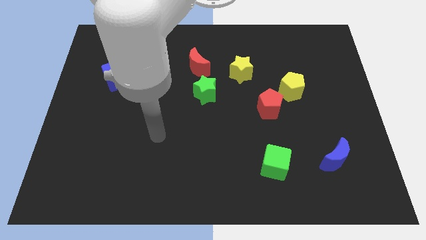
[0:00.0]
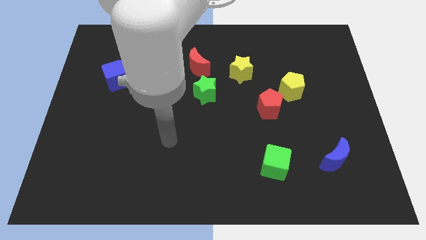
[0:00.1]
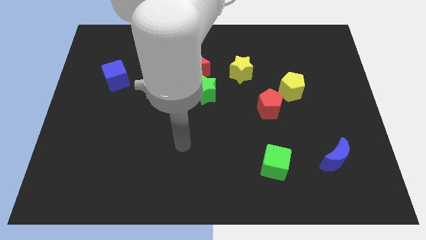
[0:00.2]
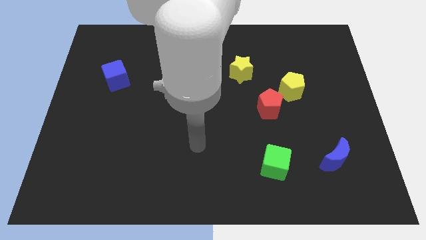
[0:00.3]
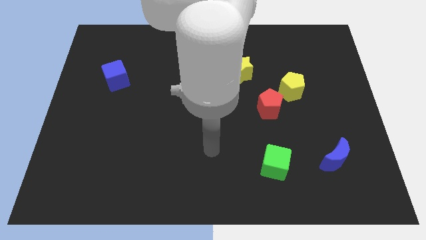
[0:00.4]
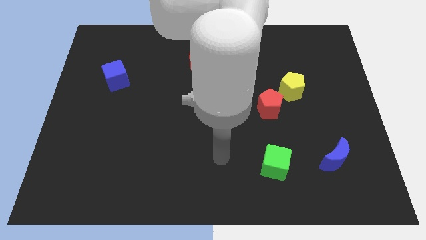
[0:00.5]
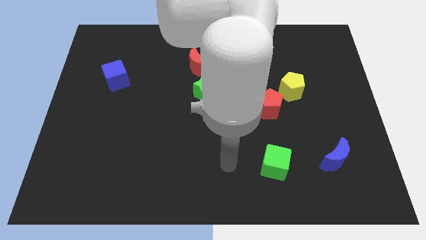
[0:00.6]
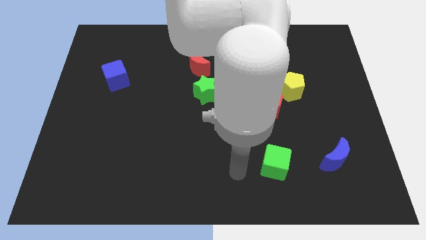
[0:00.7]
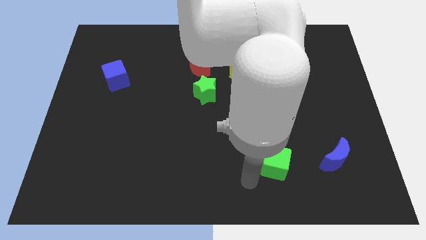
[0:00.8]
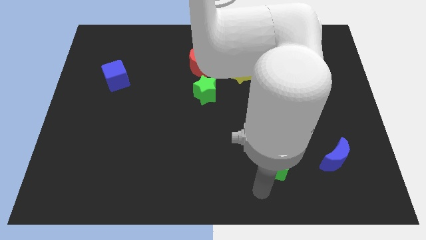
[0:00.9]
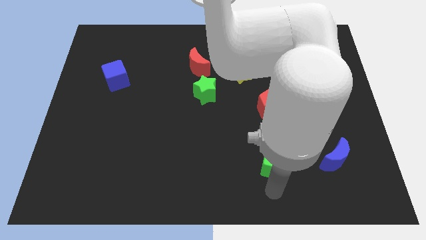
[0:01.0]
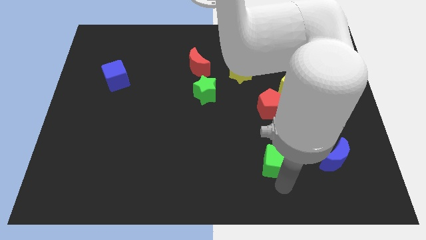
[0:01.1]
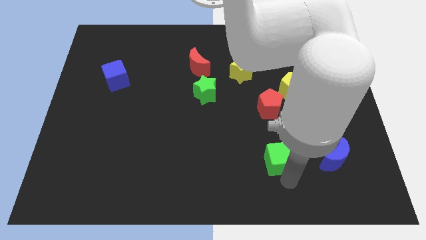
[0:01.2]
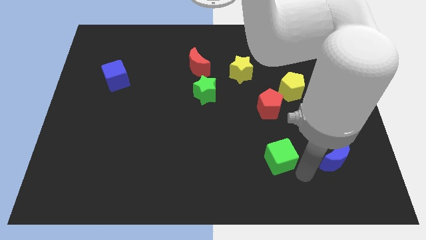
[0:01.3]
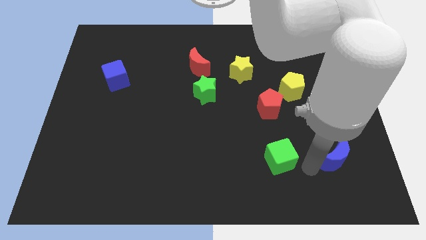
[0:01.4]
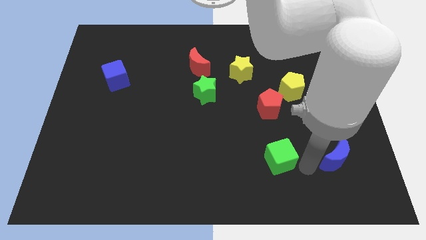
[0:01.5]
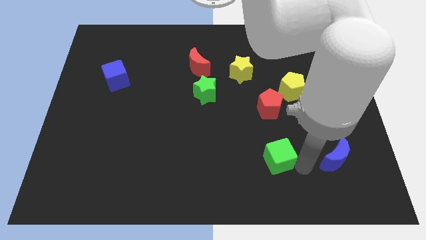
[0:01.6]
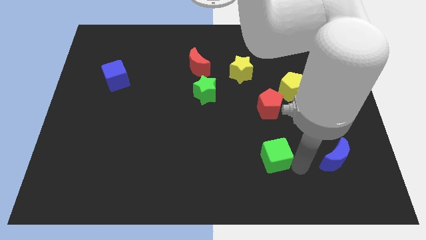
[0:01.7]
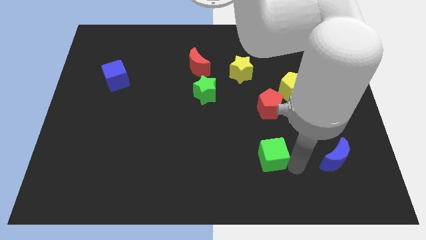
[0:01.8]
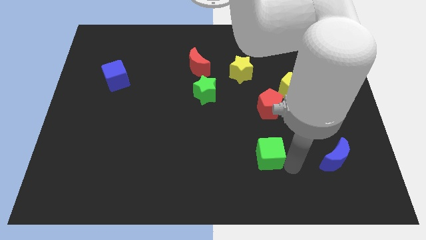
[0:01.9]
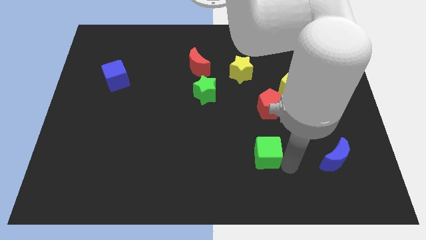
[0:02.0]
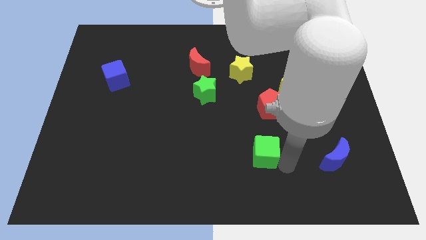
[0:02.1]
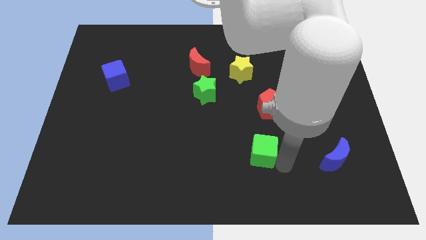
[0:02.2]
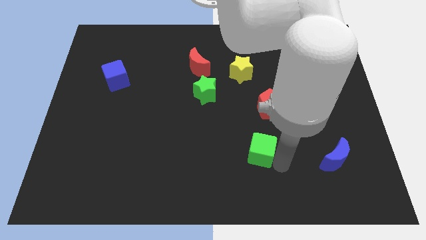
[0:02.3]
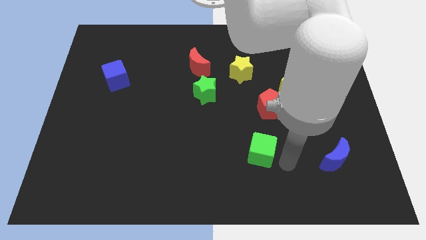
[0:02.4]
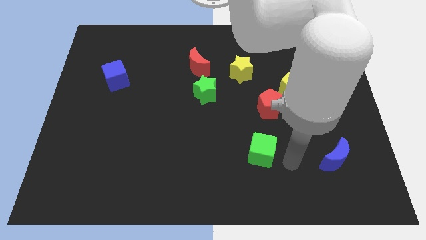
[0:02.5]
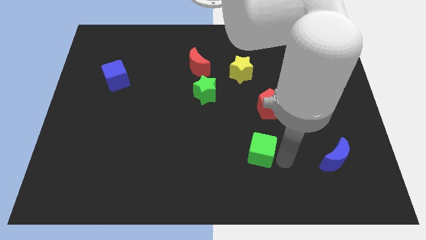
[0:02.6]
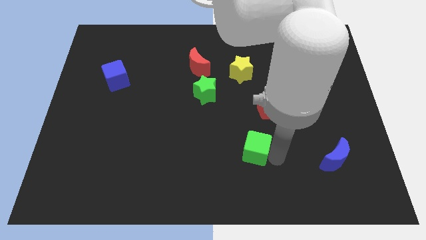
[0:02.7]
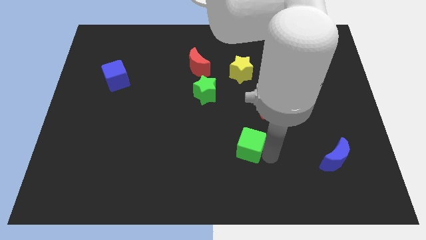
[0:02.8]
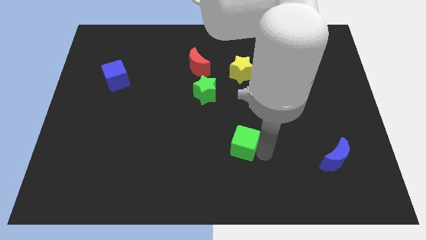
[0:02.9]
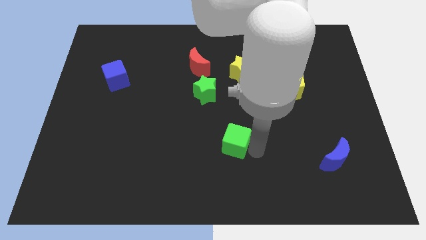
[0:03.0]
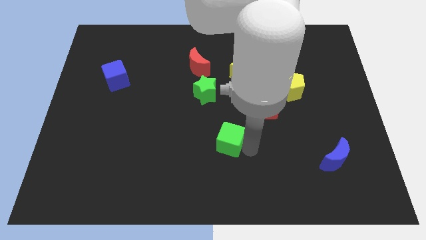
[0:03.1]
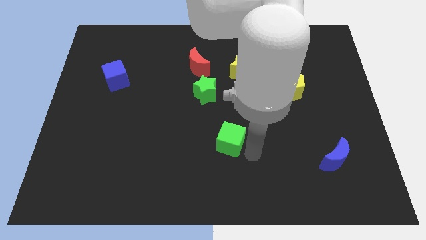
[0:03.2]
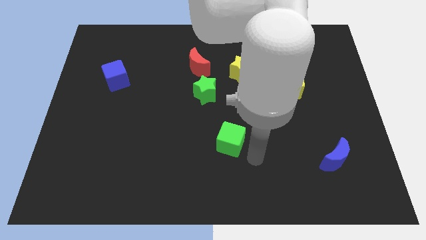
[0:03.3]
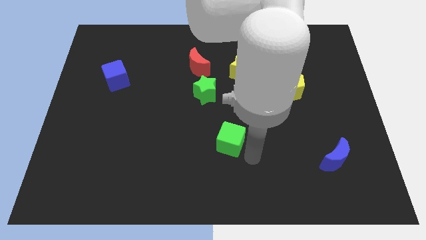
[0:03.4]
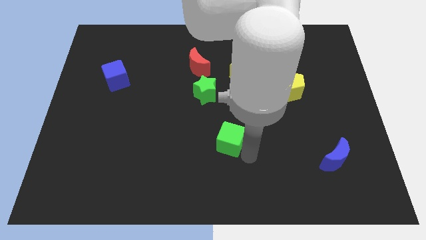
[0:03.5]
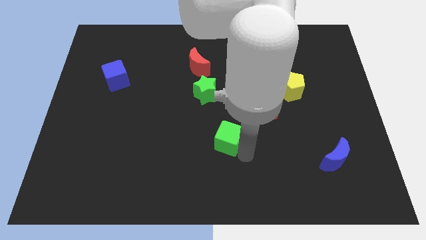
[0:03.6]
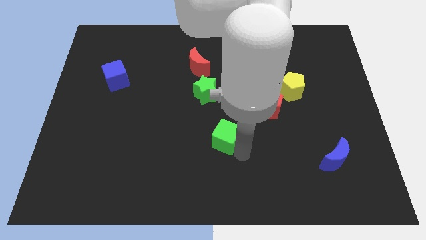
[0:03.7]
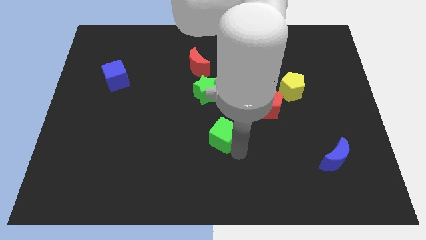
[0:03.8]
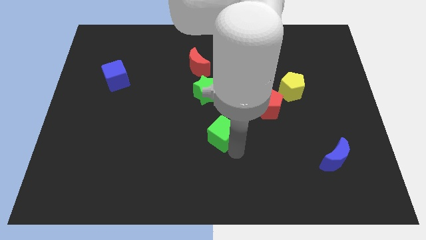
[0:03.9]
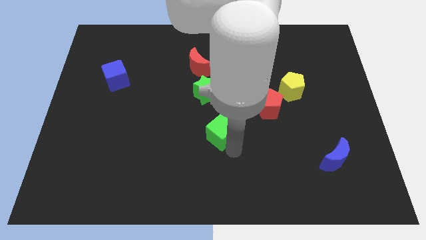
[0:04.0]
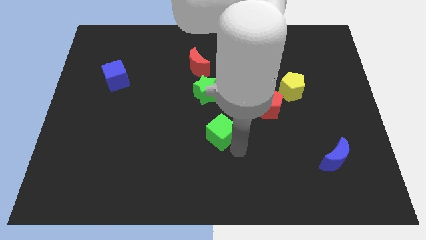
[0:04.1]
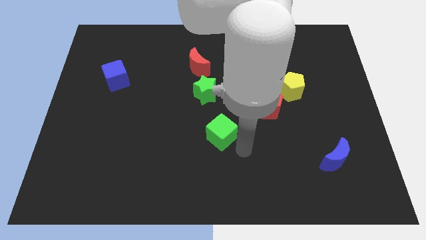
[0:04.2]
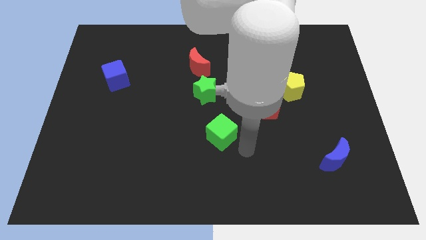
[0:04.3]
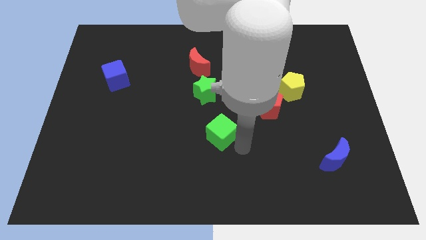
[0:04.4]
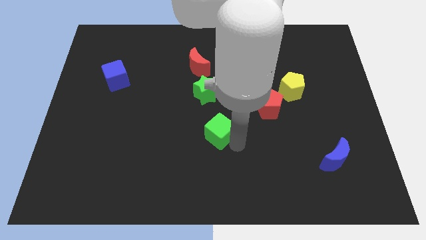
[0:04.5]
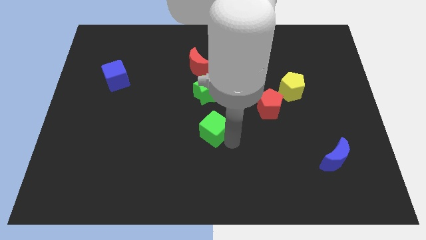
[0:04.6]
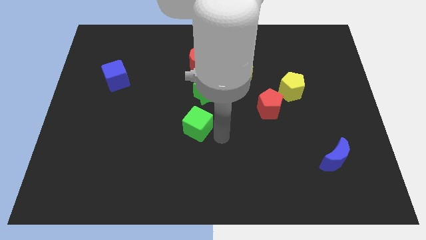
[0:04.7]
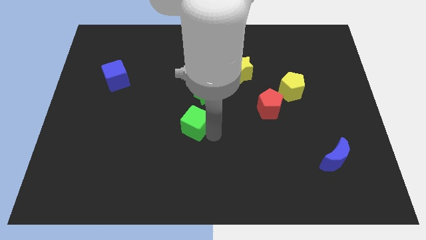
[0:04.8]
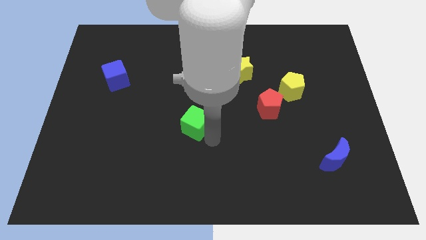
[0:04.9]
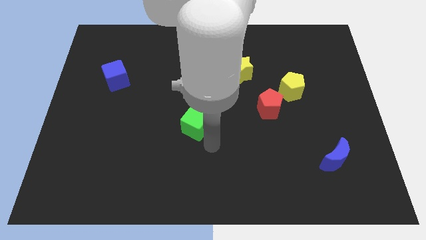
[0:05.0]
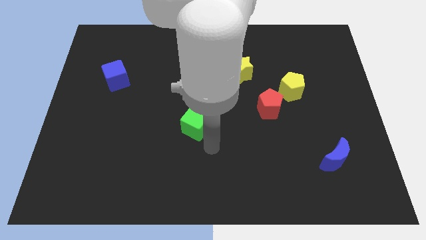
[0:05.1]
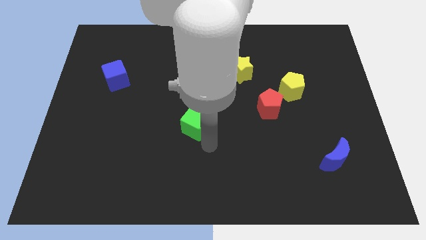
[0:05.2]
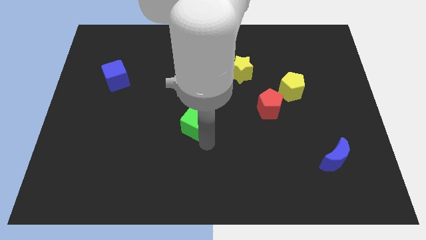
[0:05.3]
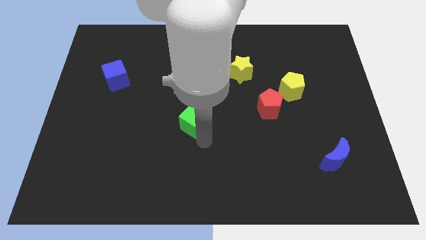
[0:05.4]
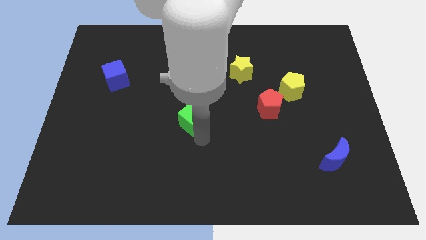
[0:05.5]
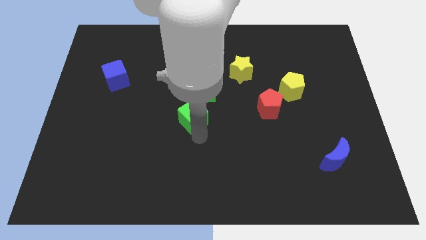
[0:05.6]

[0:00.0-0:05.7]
move the green cube upwards and then to the left

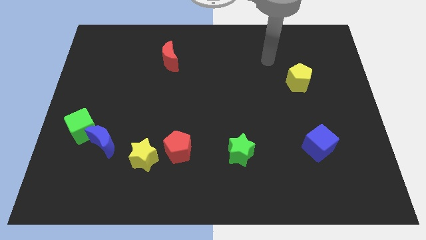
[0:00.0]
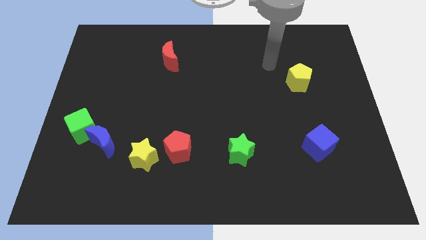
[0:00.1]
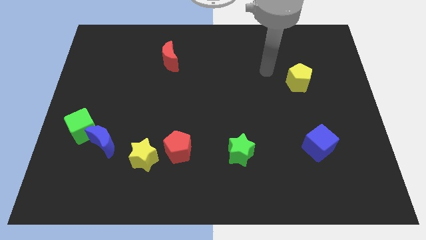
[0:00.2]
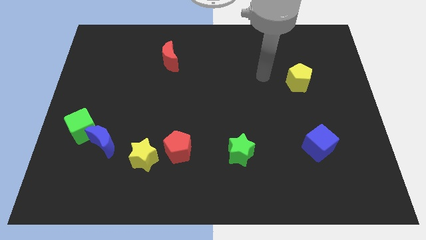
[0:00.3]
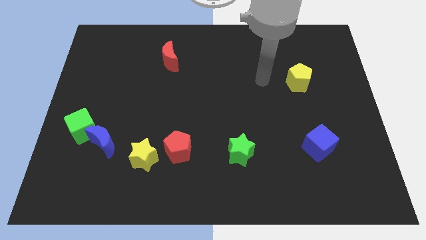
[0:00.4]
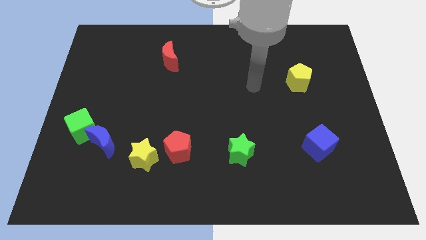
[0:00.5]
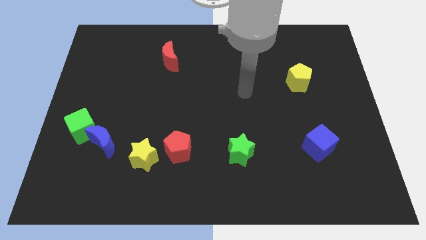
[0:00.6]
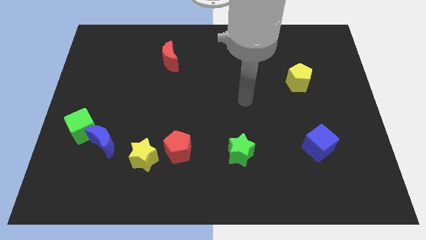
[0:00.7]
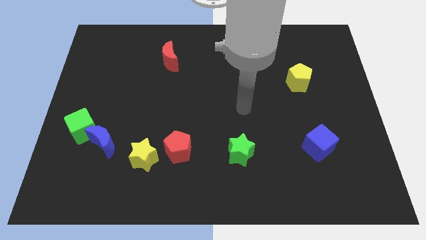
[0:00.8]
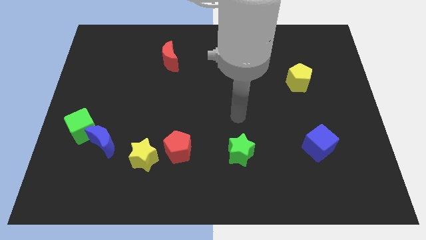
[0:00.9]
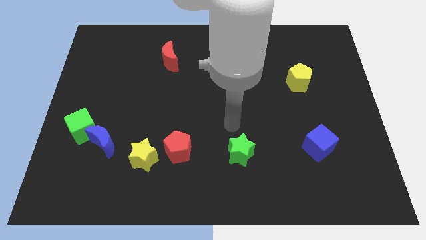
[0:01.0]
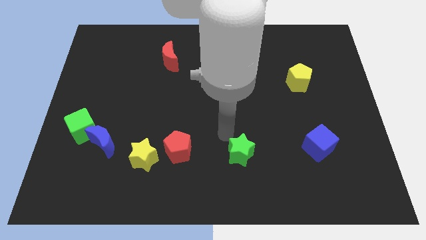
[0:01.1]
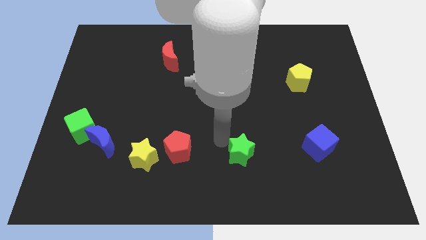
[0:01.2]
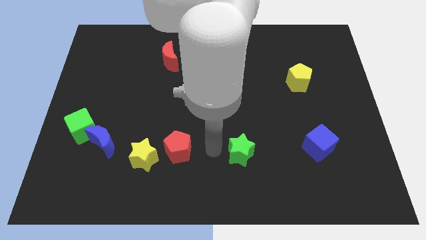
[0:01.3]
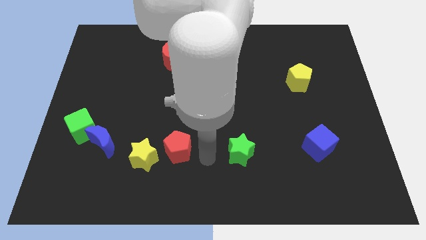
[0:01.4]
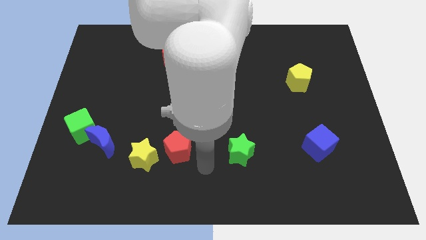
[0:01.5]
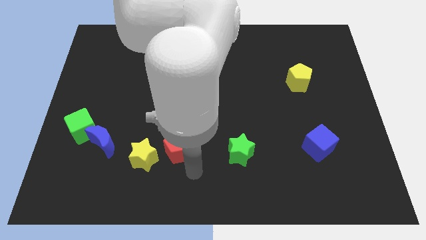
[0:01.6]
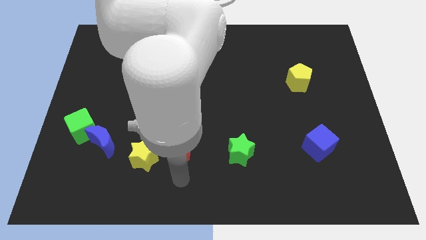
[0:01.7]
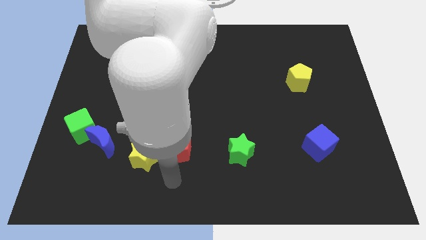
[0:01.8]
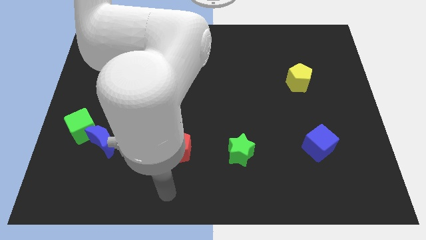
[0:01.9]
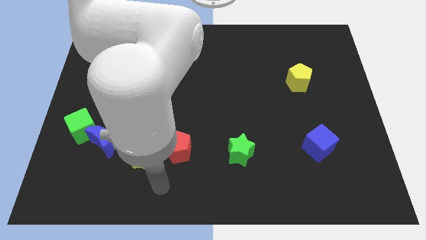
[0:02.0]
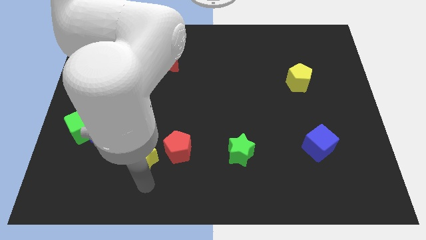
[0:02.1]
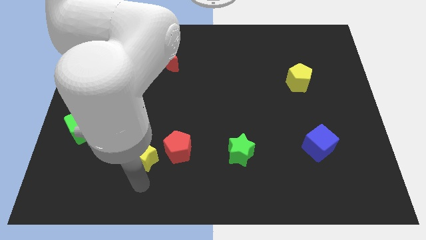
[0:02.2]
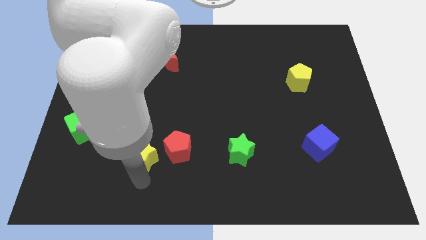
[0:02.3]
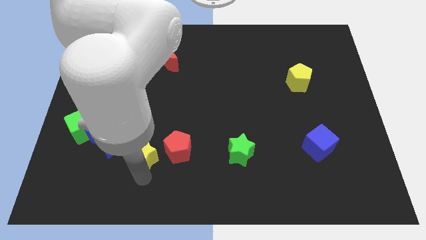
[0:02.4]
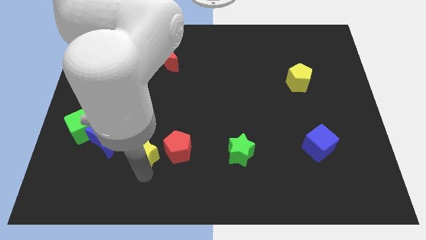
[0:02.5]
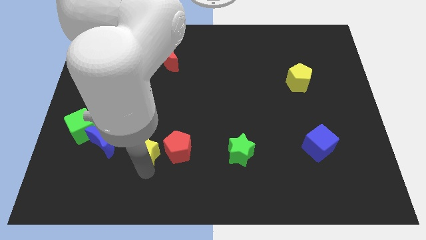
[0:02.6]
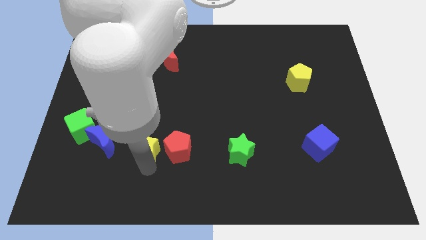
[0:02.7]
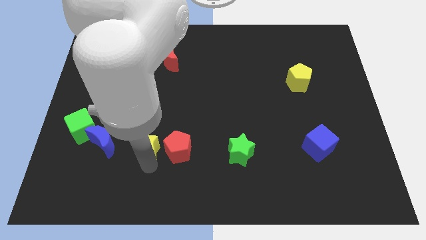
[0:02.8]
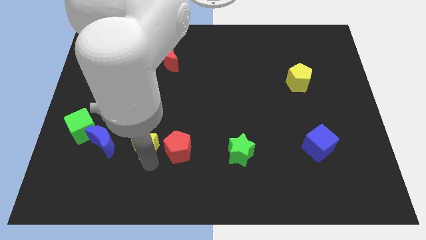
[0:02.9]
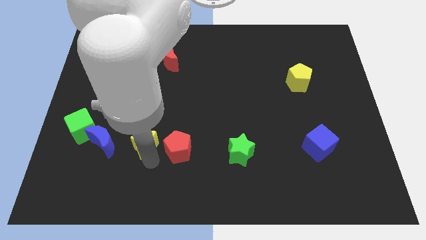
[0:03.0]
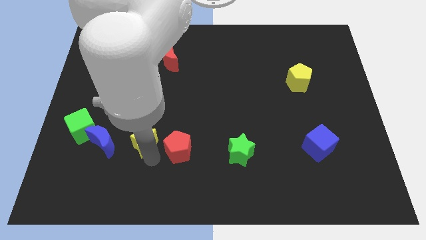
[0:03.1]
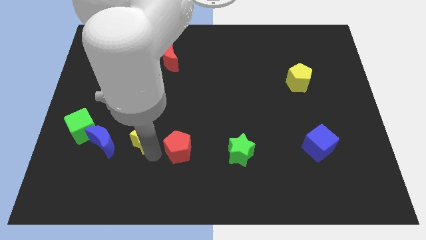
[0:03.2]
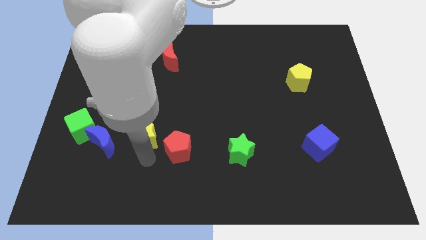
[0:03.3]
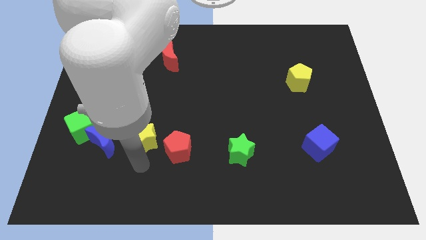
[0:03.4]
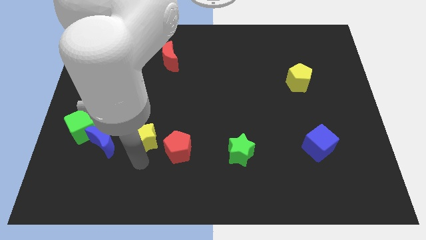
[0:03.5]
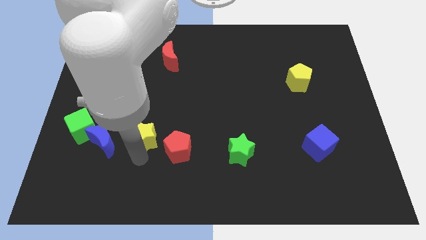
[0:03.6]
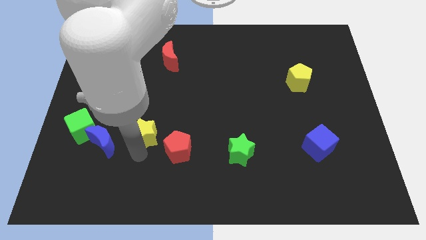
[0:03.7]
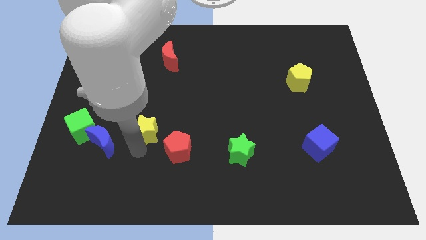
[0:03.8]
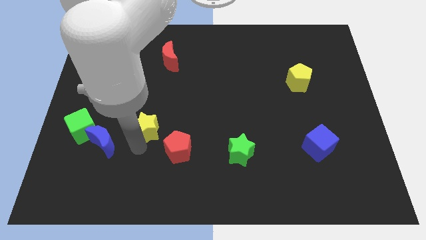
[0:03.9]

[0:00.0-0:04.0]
move the yellow star a little upwards
